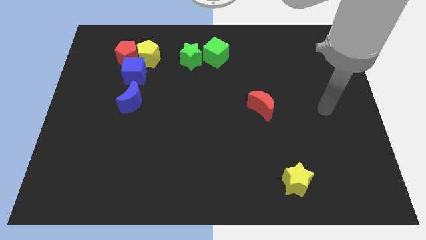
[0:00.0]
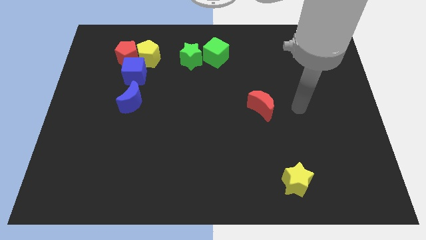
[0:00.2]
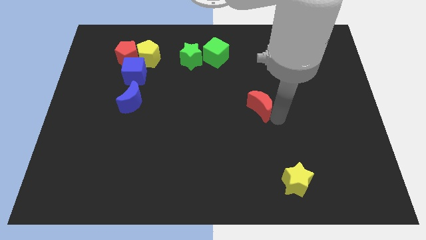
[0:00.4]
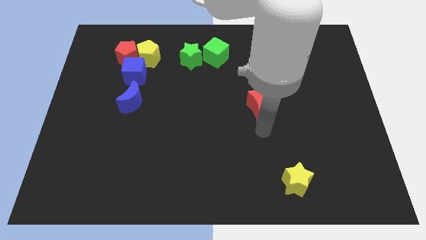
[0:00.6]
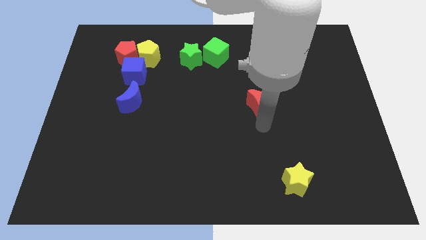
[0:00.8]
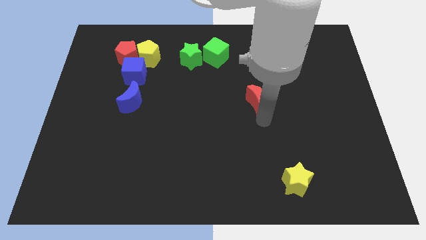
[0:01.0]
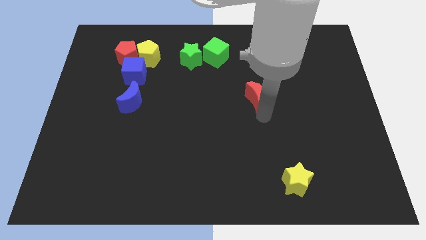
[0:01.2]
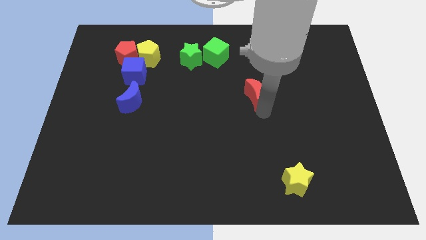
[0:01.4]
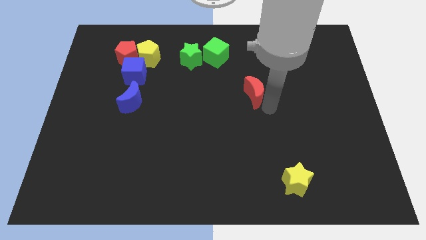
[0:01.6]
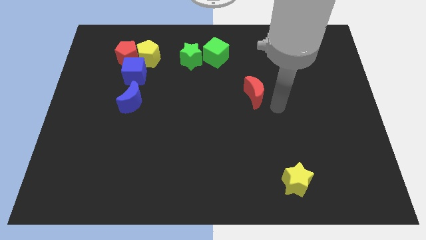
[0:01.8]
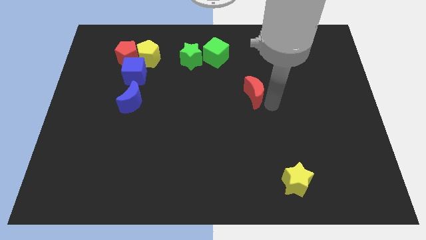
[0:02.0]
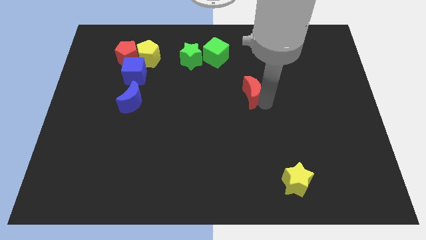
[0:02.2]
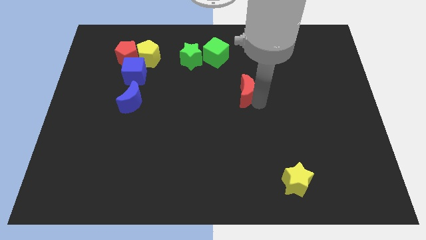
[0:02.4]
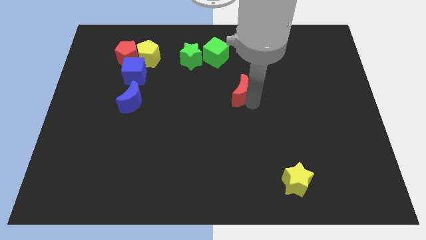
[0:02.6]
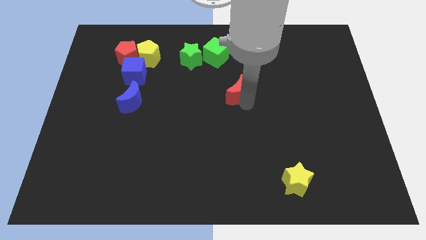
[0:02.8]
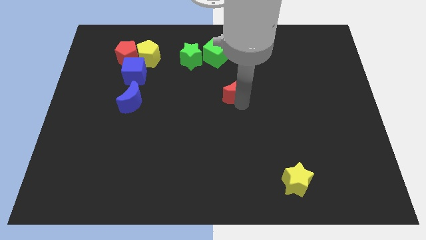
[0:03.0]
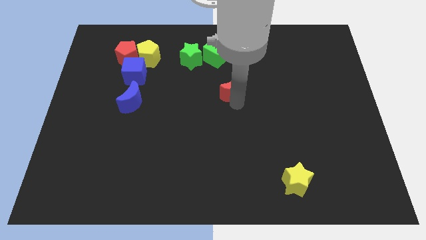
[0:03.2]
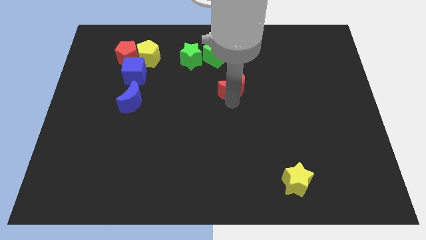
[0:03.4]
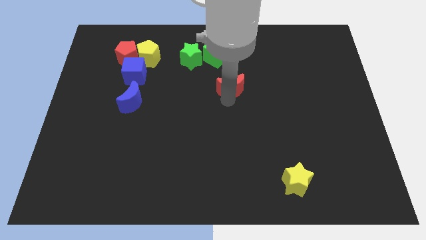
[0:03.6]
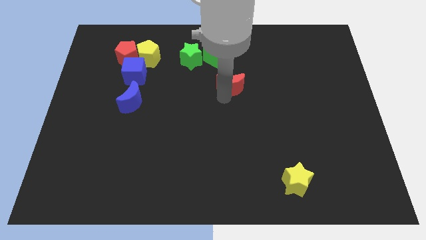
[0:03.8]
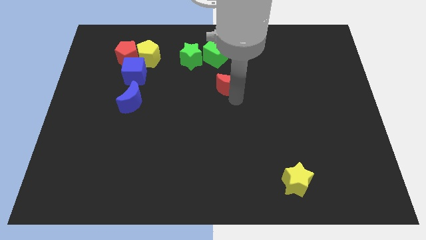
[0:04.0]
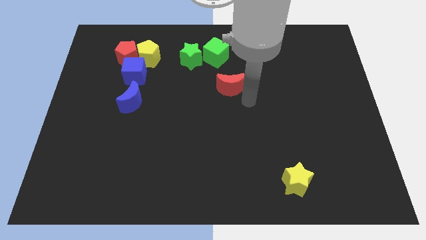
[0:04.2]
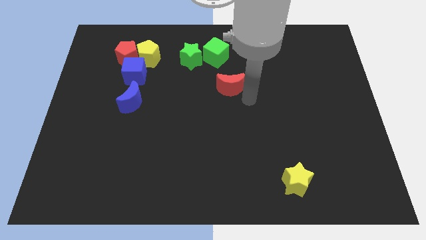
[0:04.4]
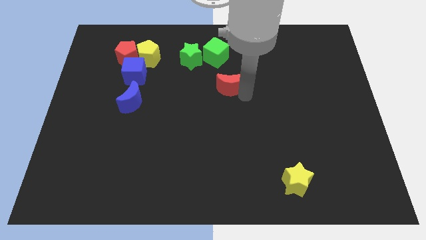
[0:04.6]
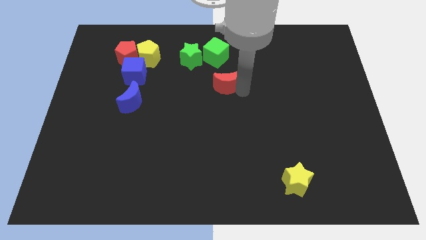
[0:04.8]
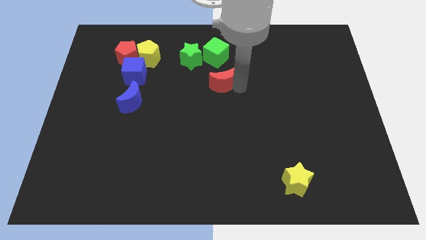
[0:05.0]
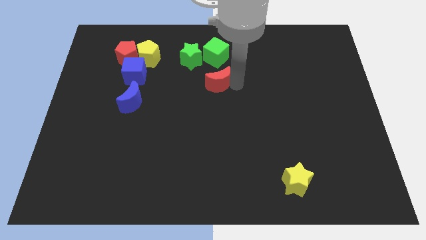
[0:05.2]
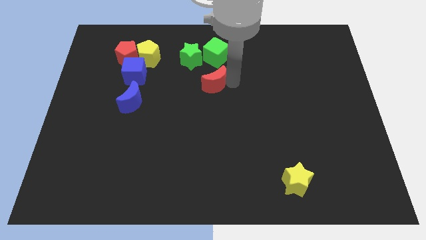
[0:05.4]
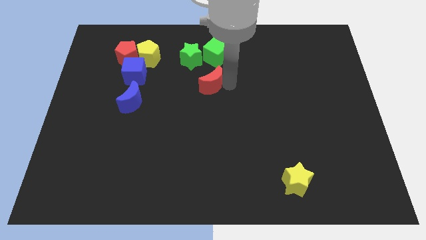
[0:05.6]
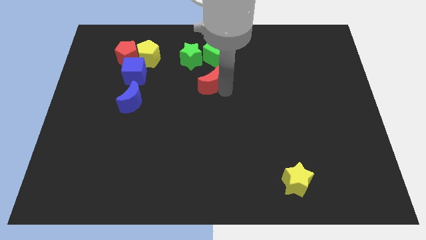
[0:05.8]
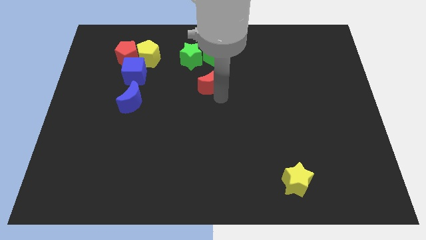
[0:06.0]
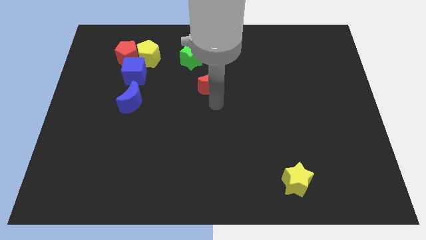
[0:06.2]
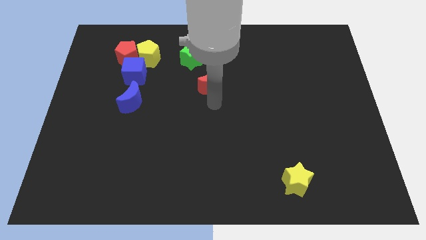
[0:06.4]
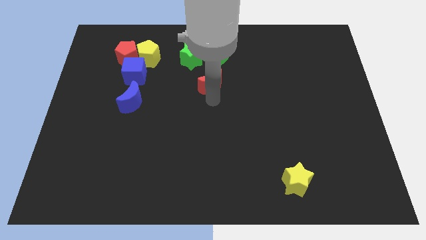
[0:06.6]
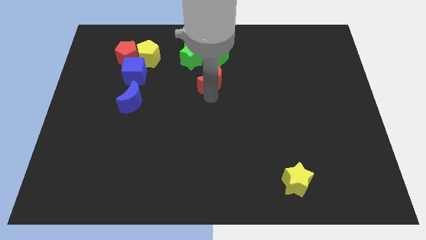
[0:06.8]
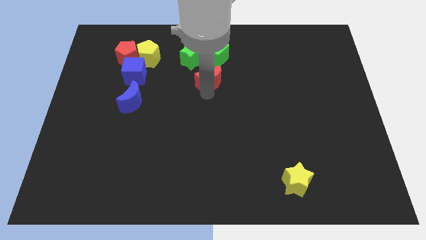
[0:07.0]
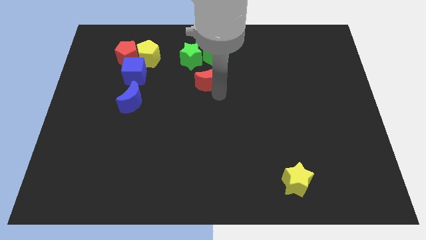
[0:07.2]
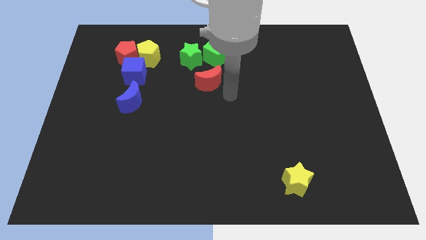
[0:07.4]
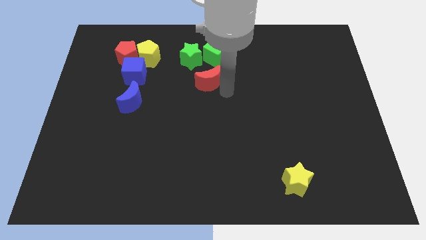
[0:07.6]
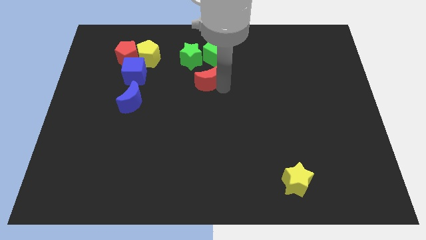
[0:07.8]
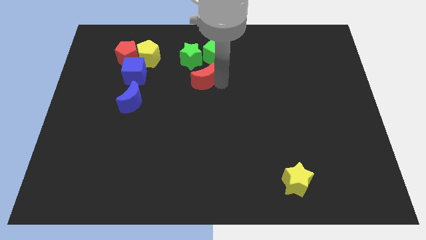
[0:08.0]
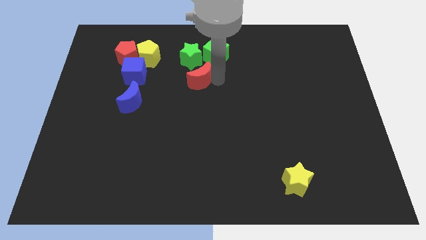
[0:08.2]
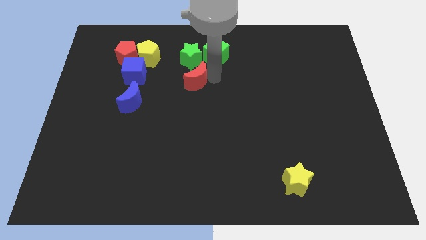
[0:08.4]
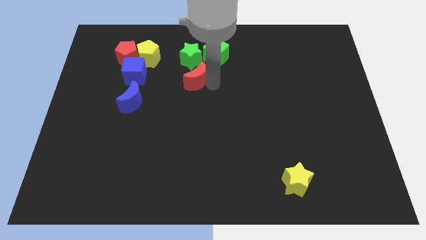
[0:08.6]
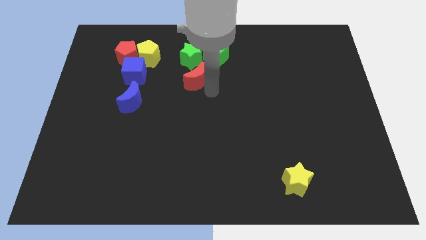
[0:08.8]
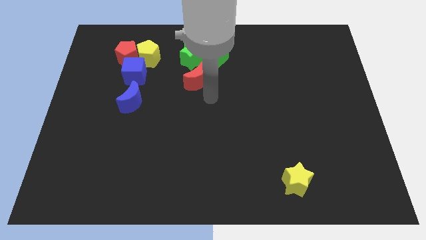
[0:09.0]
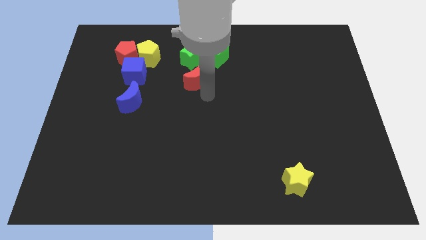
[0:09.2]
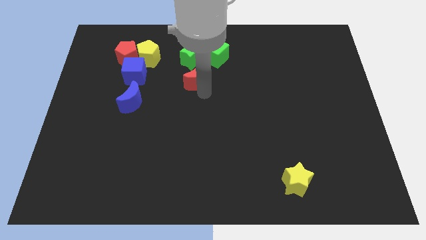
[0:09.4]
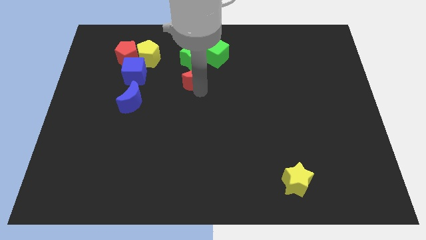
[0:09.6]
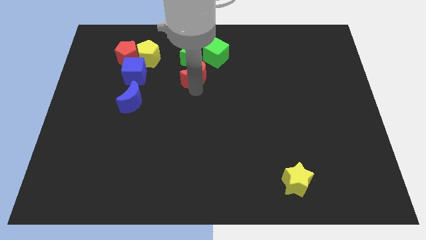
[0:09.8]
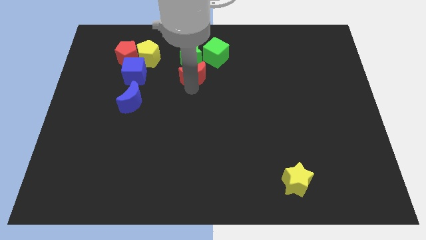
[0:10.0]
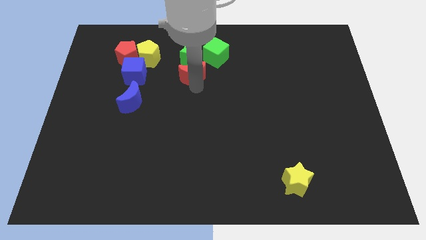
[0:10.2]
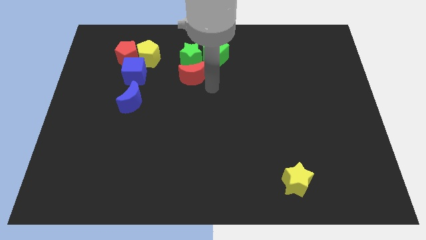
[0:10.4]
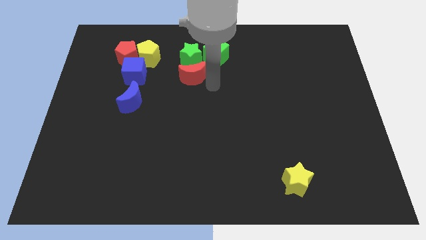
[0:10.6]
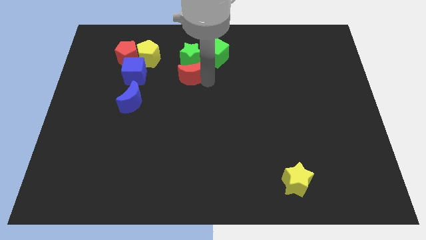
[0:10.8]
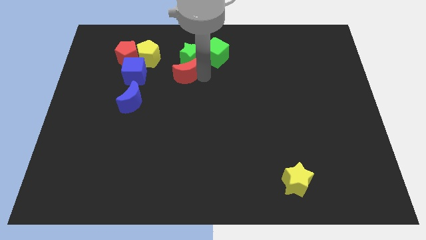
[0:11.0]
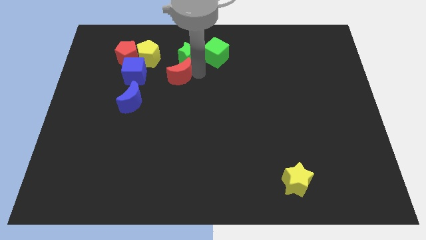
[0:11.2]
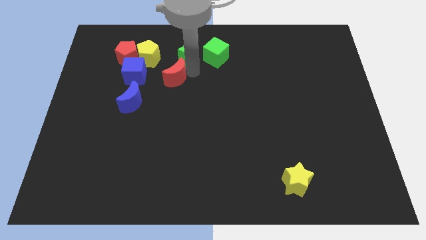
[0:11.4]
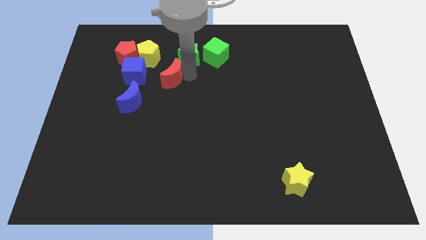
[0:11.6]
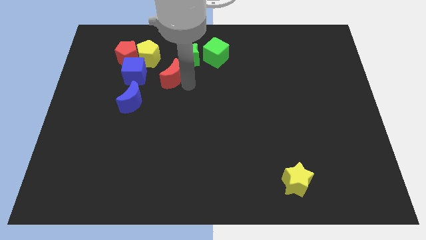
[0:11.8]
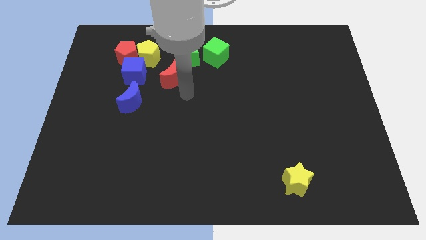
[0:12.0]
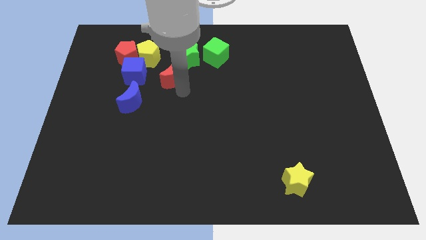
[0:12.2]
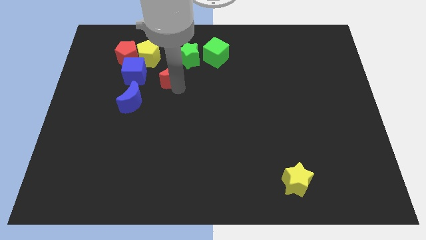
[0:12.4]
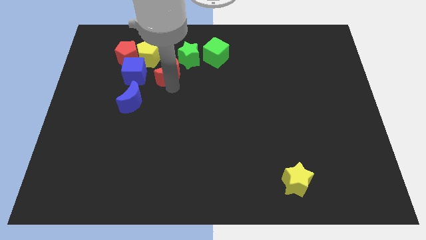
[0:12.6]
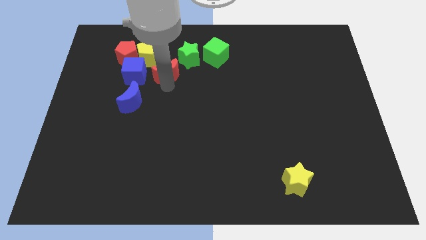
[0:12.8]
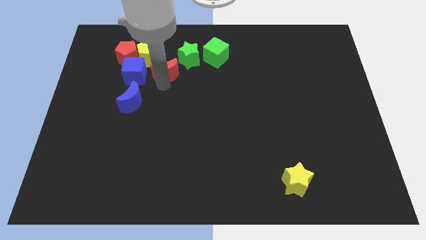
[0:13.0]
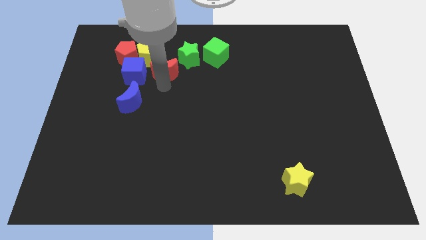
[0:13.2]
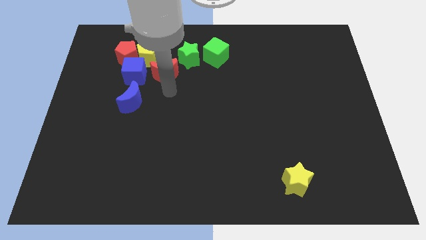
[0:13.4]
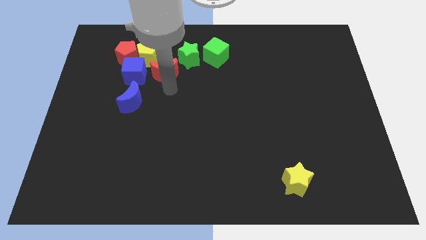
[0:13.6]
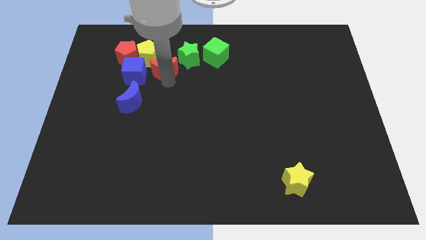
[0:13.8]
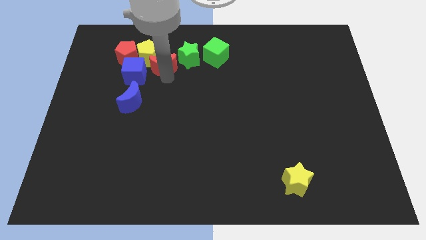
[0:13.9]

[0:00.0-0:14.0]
push the red moon towards the yellow pentagon

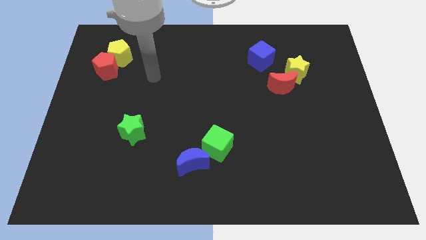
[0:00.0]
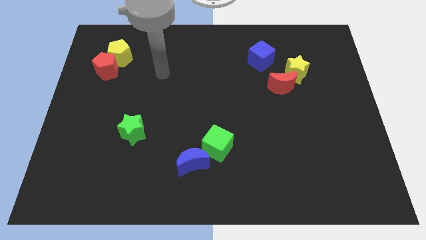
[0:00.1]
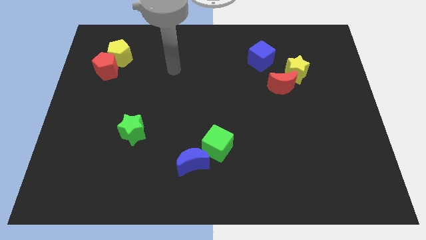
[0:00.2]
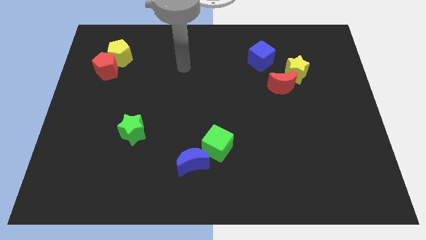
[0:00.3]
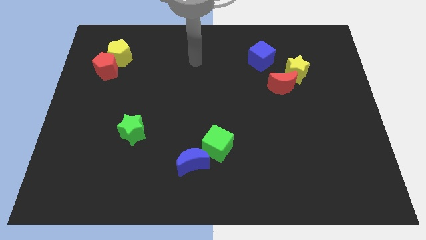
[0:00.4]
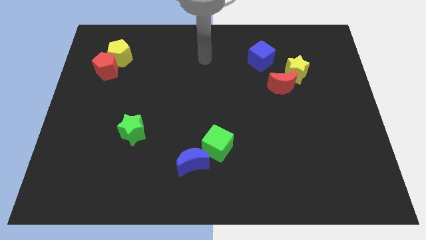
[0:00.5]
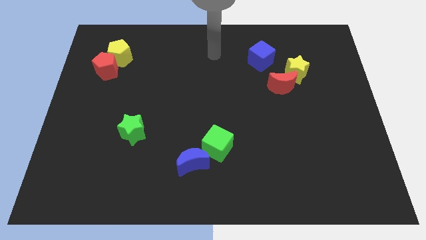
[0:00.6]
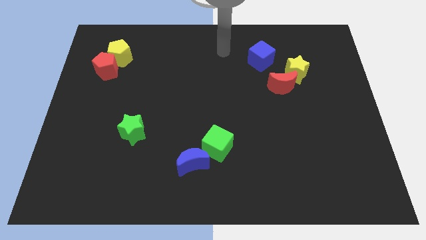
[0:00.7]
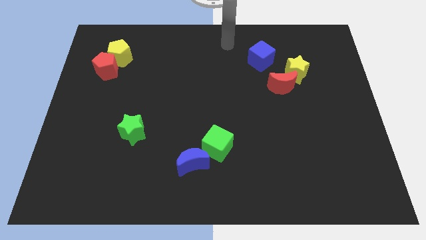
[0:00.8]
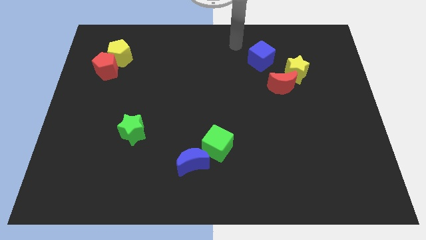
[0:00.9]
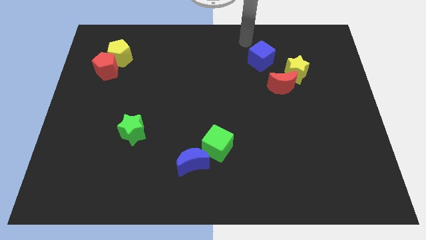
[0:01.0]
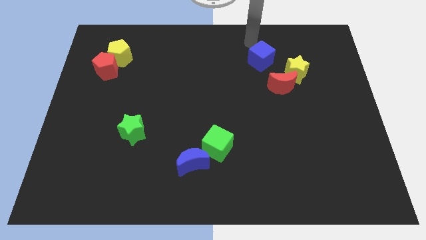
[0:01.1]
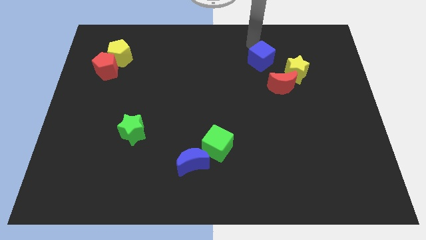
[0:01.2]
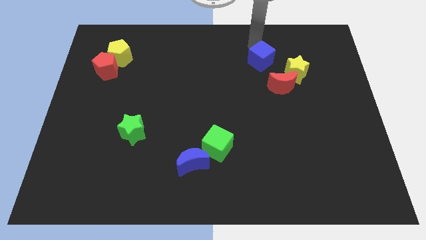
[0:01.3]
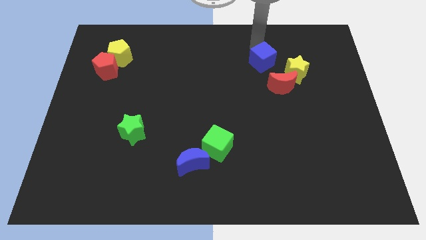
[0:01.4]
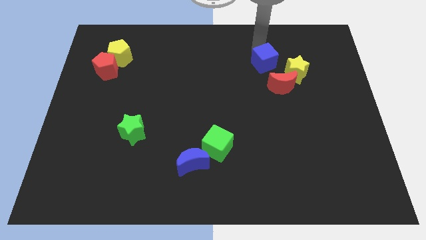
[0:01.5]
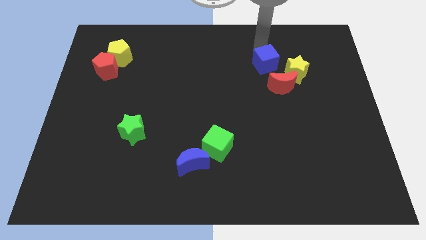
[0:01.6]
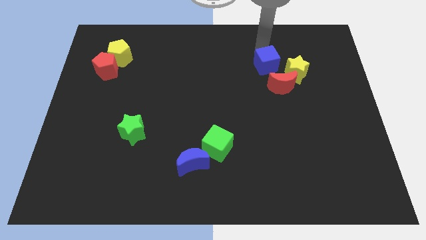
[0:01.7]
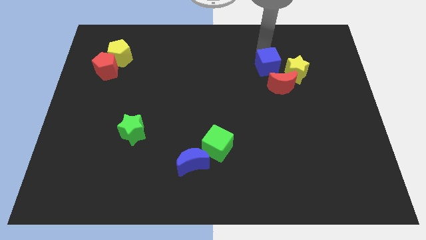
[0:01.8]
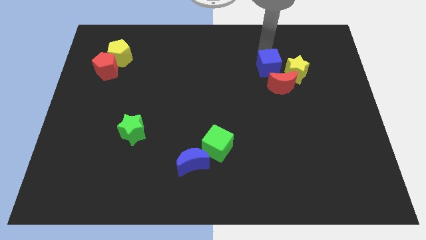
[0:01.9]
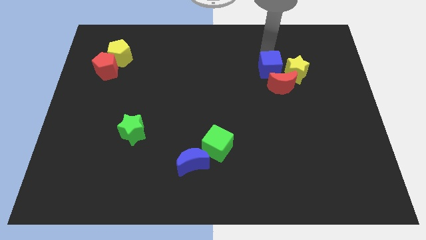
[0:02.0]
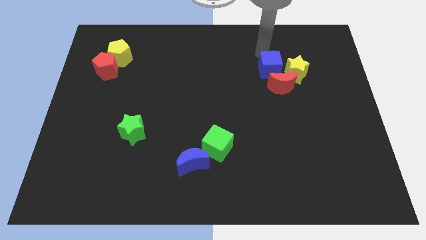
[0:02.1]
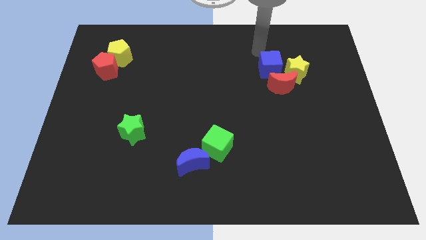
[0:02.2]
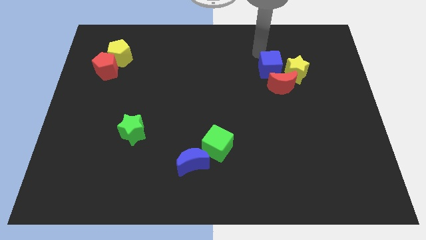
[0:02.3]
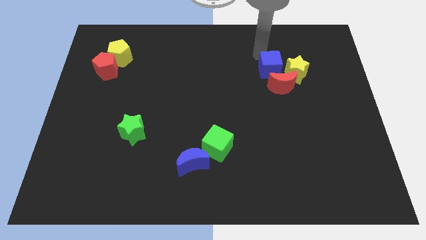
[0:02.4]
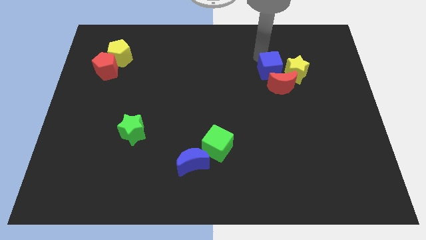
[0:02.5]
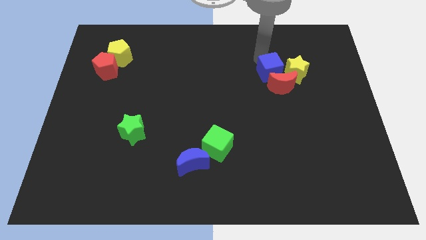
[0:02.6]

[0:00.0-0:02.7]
put the blue cube towards the red moon
